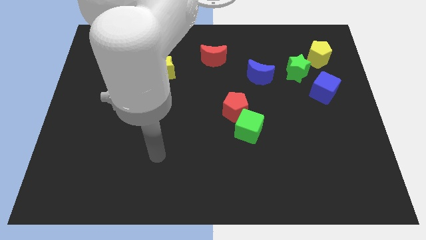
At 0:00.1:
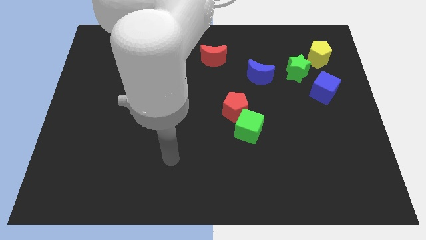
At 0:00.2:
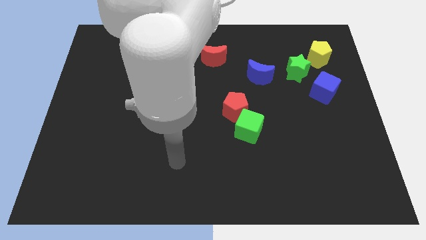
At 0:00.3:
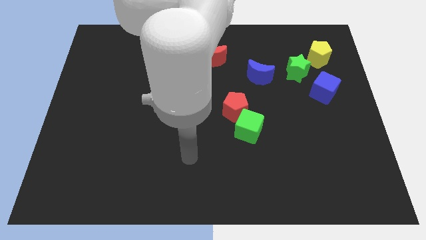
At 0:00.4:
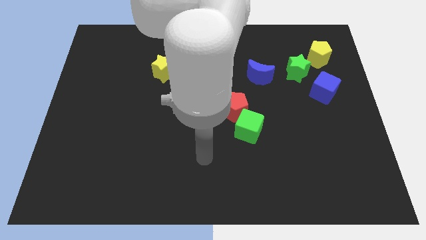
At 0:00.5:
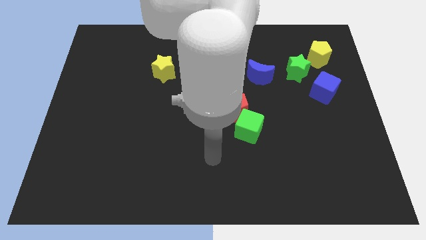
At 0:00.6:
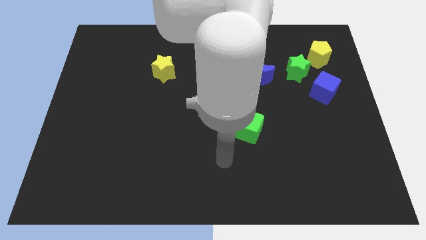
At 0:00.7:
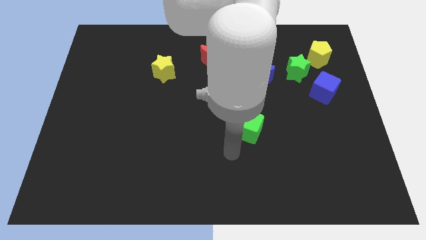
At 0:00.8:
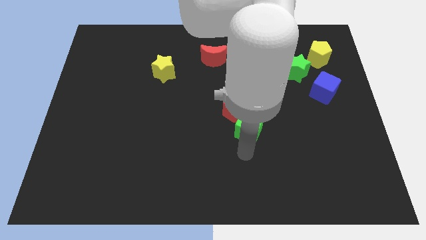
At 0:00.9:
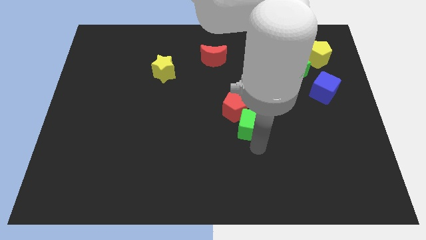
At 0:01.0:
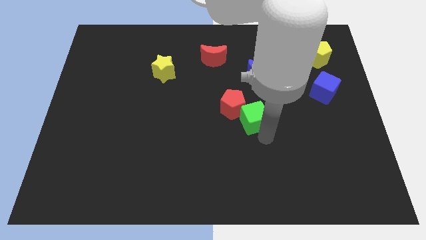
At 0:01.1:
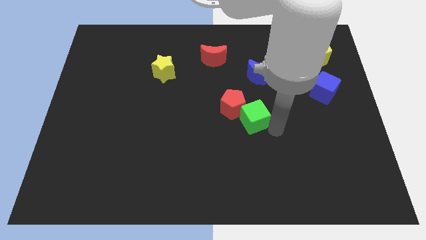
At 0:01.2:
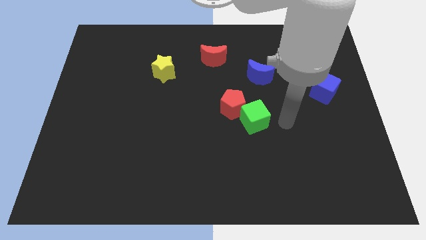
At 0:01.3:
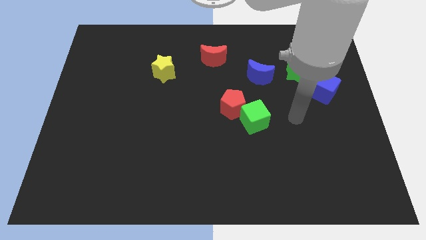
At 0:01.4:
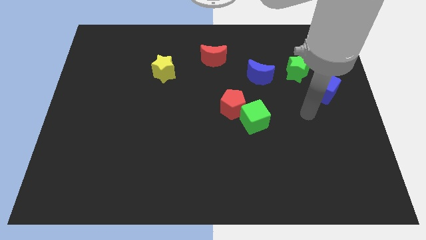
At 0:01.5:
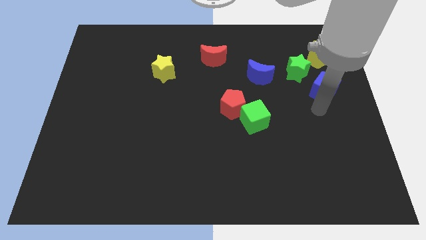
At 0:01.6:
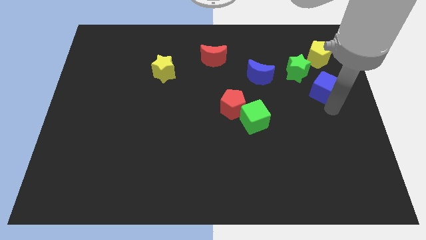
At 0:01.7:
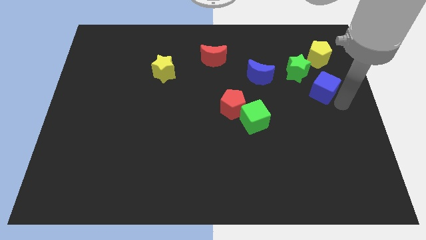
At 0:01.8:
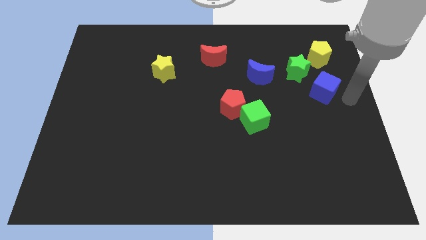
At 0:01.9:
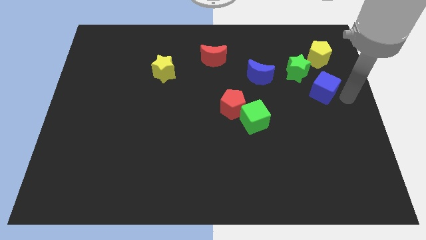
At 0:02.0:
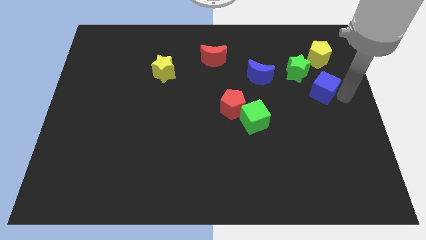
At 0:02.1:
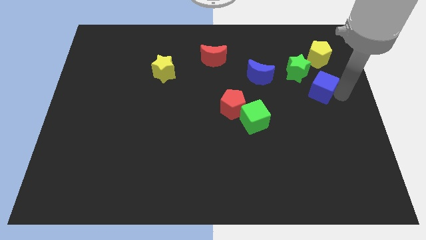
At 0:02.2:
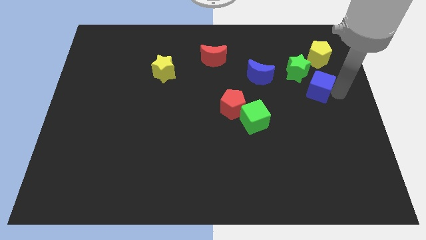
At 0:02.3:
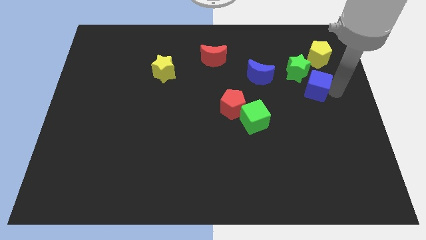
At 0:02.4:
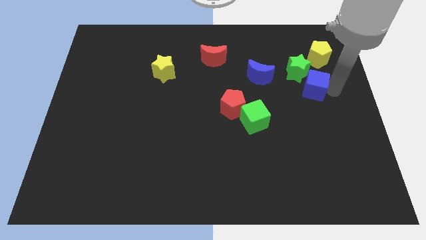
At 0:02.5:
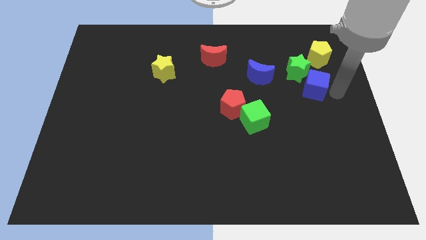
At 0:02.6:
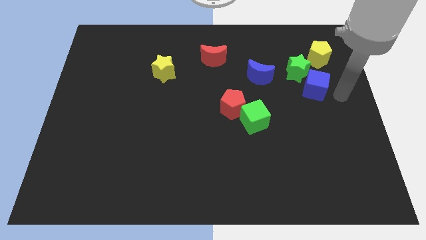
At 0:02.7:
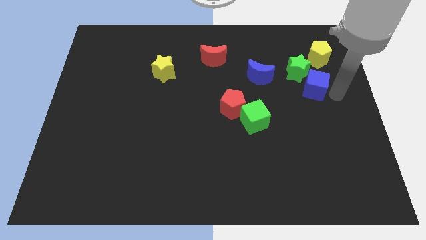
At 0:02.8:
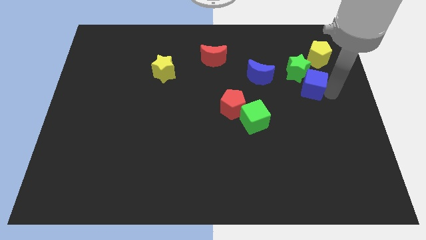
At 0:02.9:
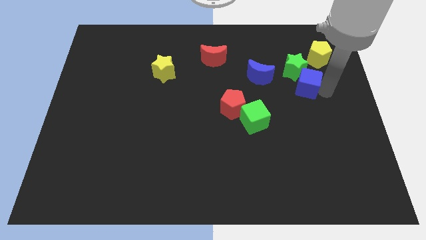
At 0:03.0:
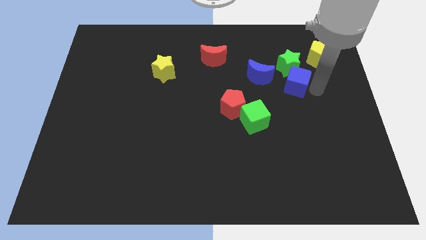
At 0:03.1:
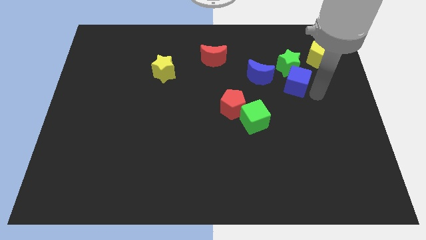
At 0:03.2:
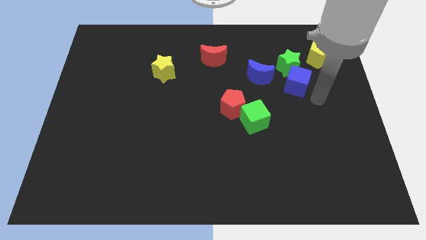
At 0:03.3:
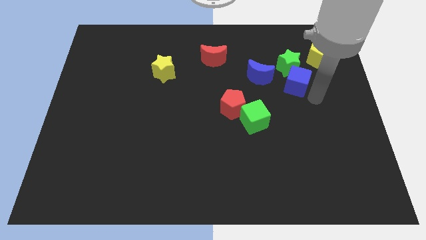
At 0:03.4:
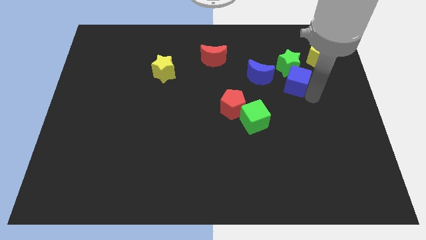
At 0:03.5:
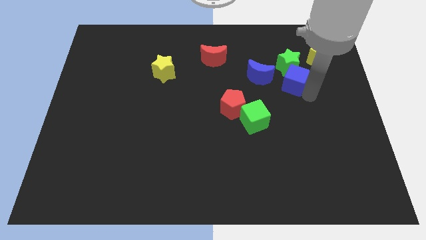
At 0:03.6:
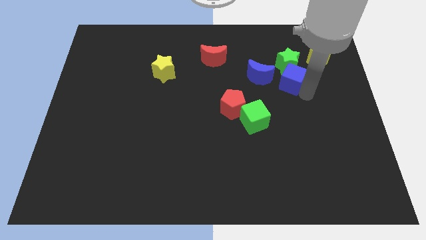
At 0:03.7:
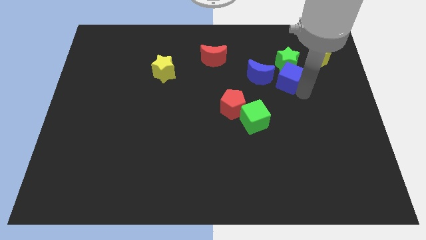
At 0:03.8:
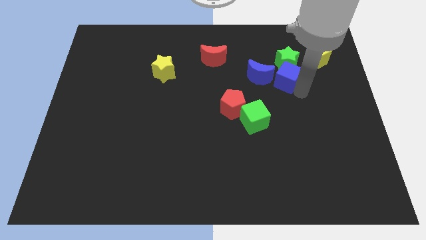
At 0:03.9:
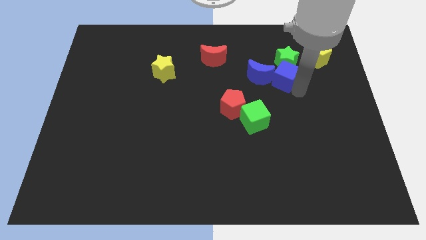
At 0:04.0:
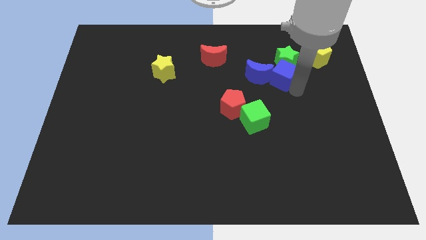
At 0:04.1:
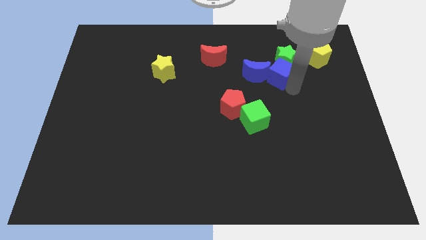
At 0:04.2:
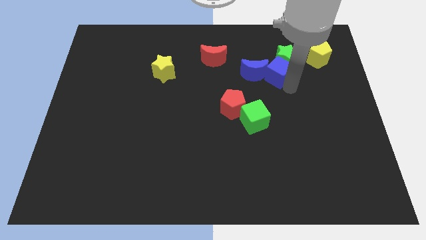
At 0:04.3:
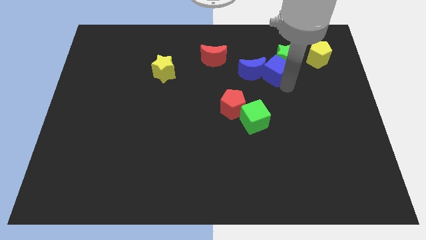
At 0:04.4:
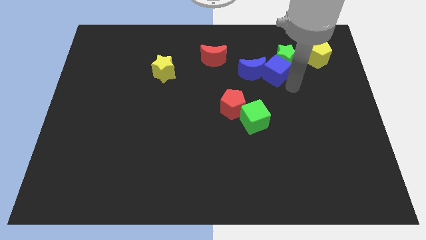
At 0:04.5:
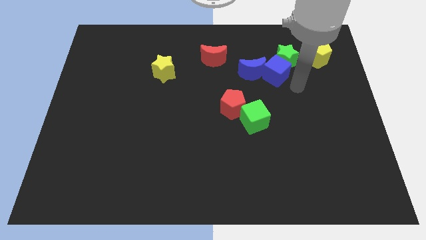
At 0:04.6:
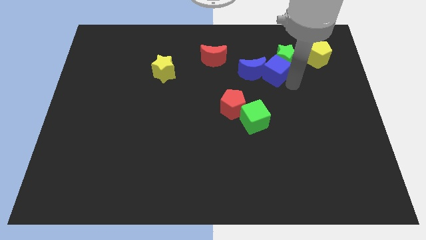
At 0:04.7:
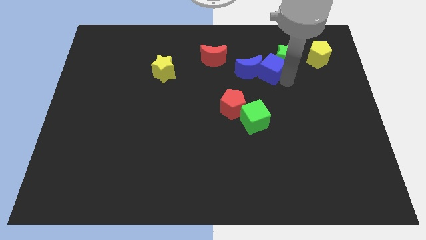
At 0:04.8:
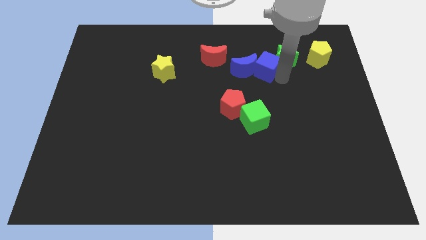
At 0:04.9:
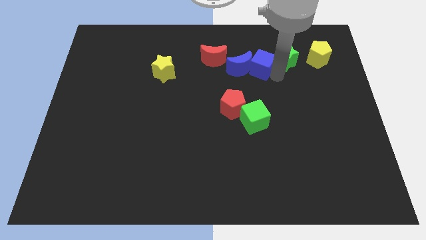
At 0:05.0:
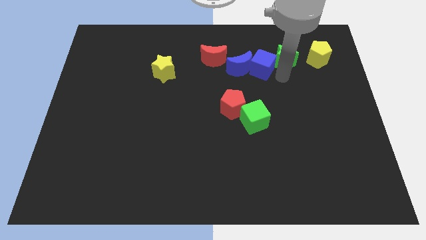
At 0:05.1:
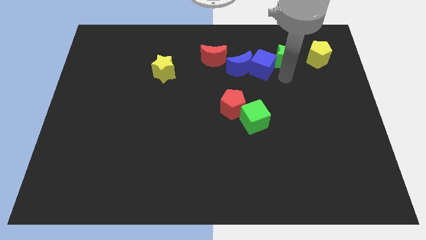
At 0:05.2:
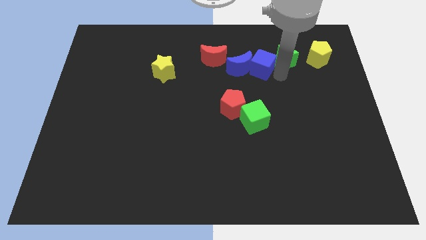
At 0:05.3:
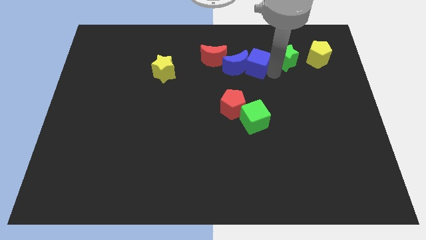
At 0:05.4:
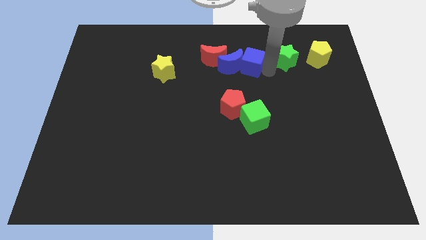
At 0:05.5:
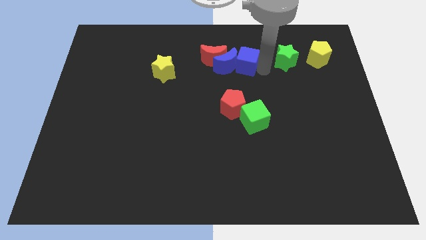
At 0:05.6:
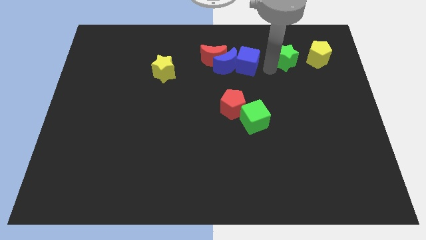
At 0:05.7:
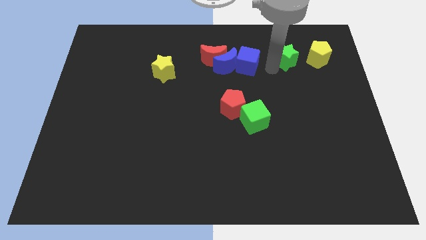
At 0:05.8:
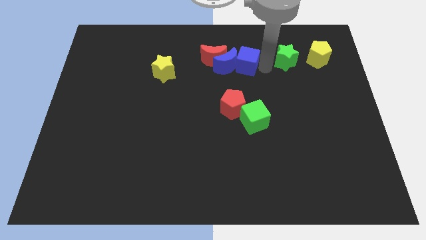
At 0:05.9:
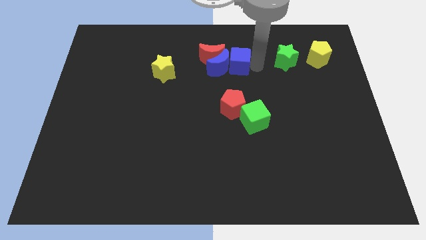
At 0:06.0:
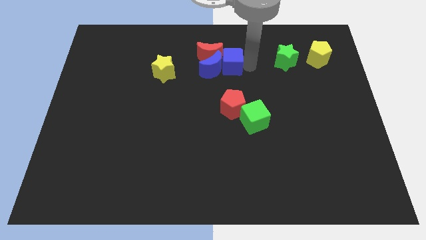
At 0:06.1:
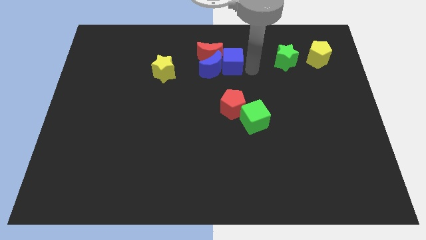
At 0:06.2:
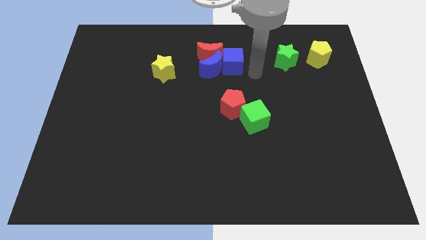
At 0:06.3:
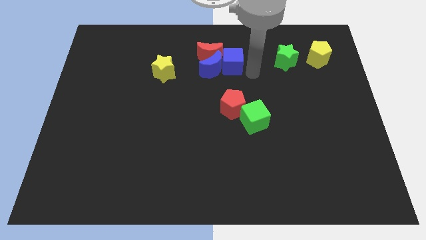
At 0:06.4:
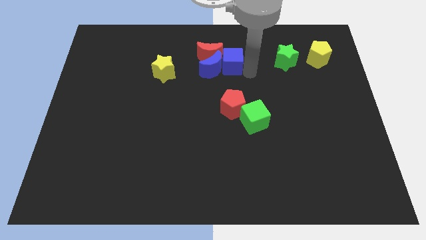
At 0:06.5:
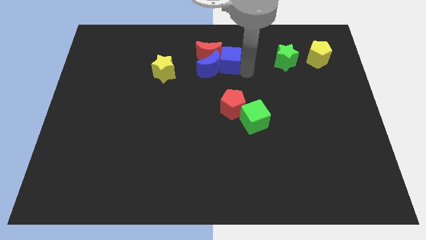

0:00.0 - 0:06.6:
move the blue cube close to the red moon

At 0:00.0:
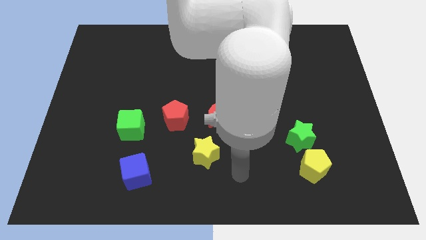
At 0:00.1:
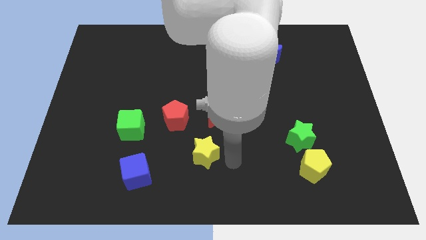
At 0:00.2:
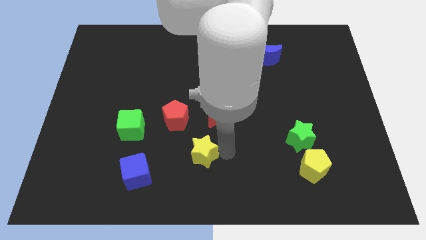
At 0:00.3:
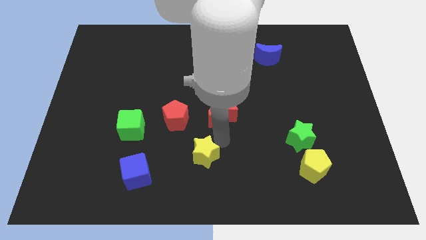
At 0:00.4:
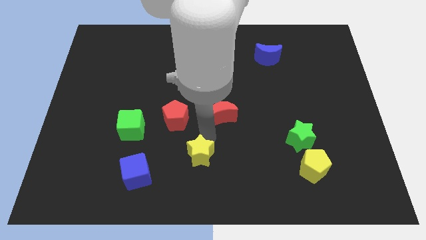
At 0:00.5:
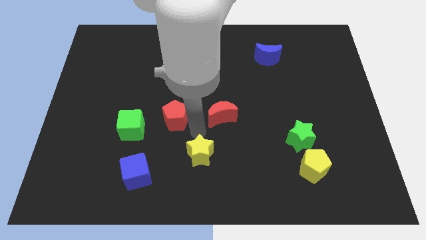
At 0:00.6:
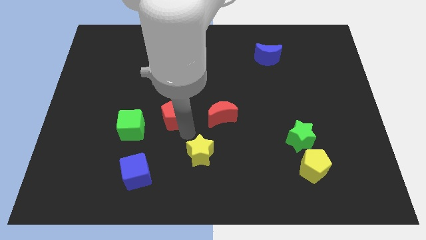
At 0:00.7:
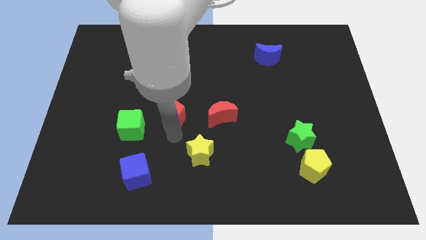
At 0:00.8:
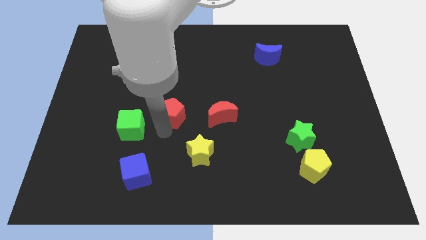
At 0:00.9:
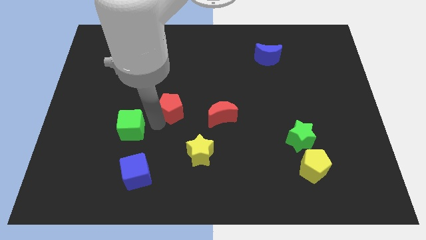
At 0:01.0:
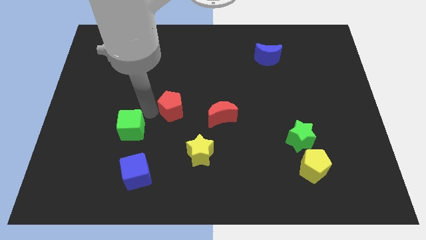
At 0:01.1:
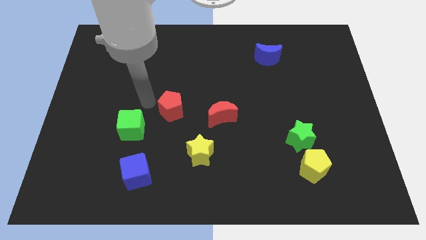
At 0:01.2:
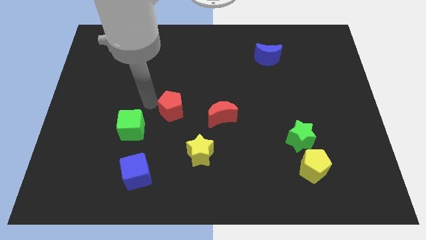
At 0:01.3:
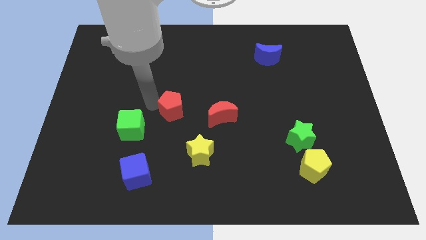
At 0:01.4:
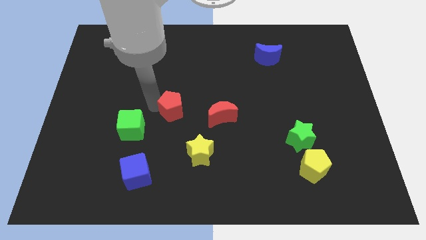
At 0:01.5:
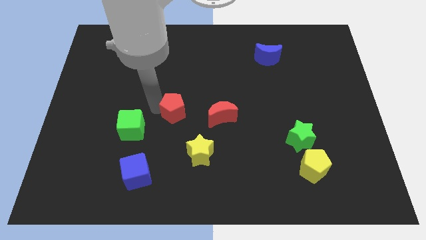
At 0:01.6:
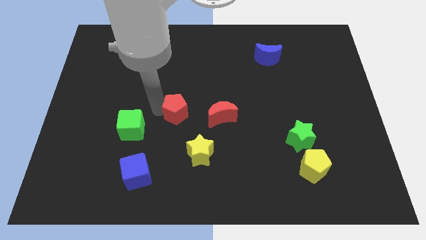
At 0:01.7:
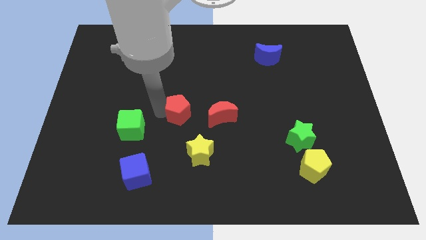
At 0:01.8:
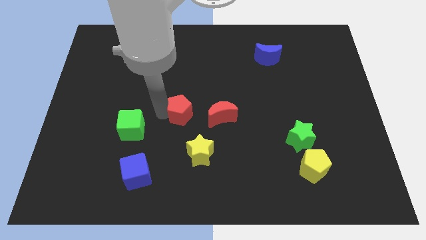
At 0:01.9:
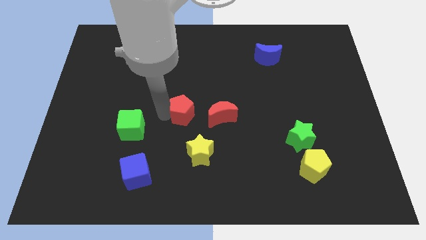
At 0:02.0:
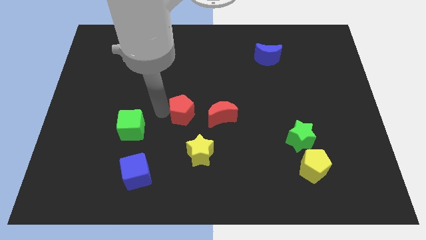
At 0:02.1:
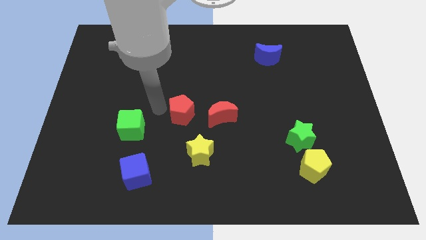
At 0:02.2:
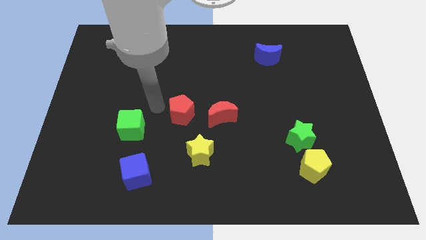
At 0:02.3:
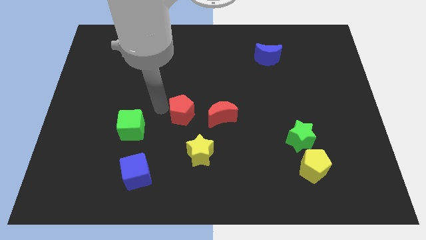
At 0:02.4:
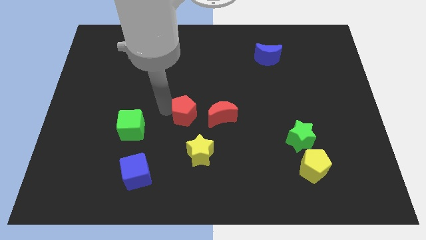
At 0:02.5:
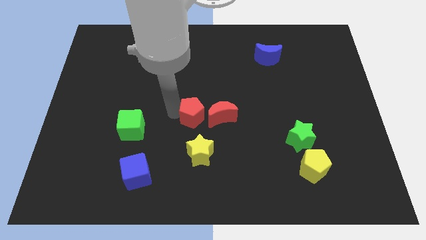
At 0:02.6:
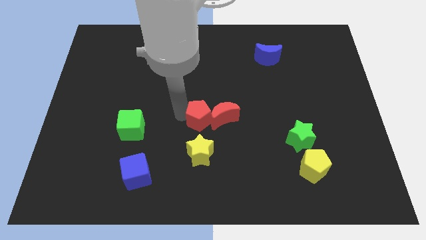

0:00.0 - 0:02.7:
slide the red pentagon close to the red moon
